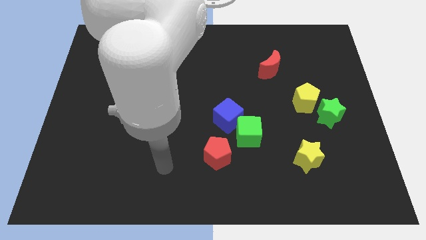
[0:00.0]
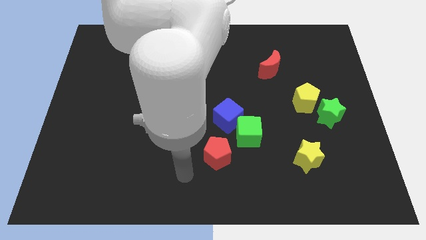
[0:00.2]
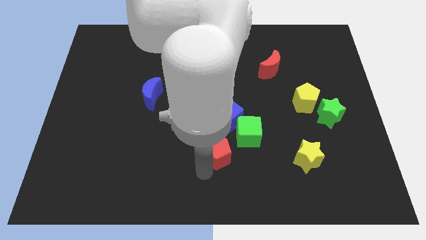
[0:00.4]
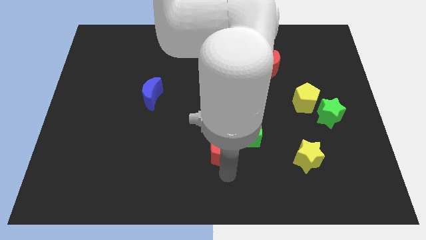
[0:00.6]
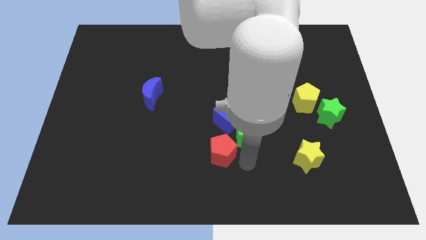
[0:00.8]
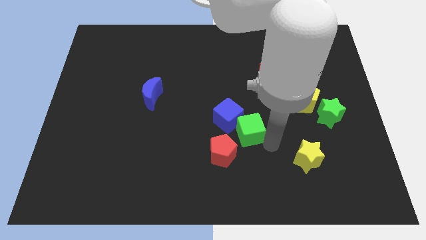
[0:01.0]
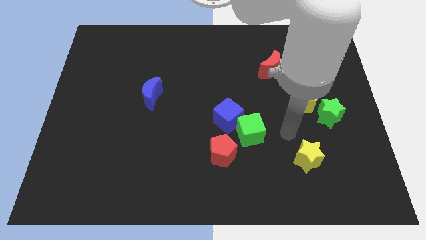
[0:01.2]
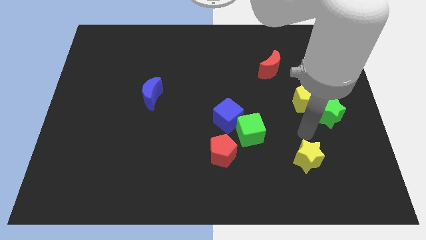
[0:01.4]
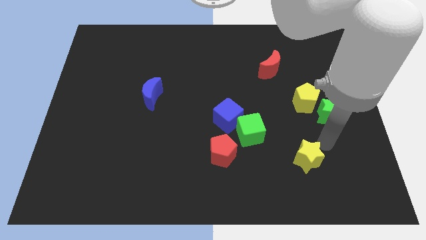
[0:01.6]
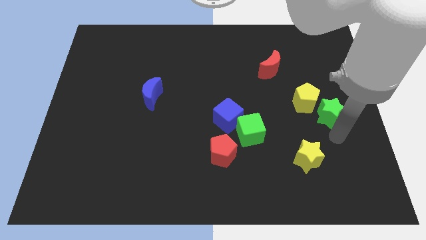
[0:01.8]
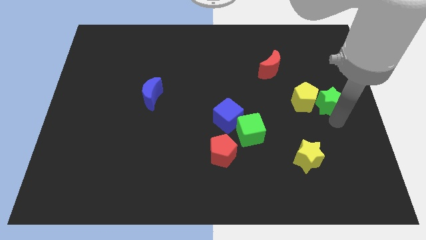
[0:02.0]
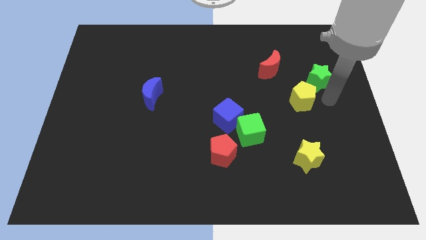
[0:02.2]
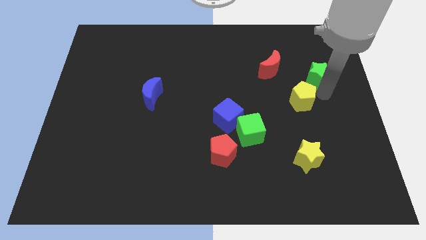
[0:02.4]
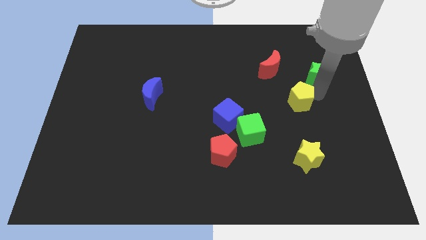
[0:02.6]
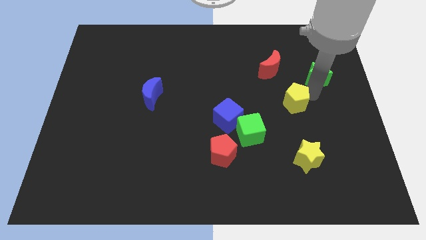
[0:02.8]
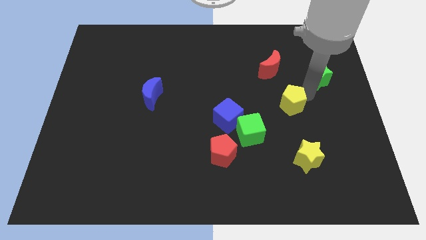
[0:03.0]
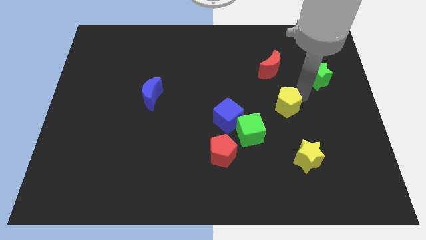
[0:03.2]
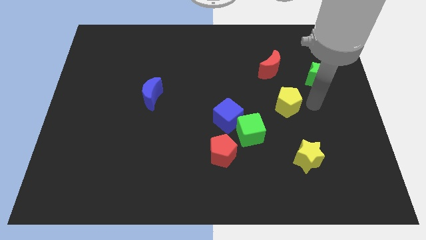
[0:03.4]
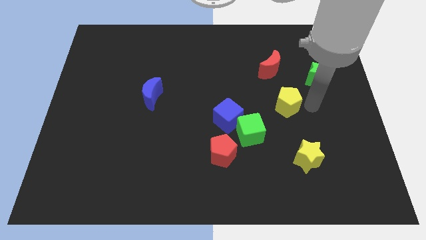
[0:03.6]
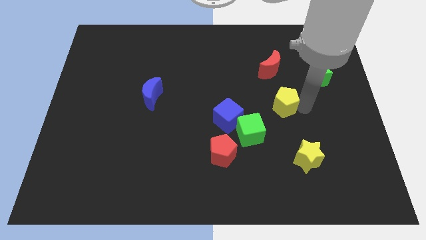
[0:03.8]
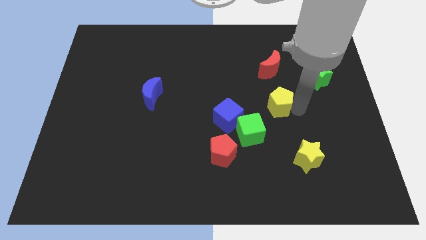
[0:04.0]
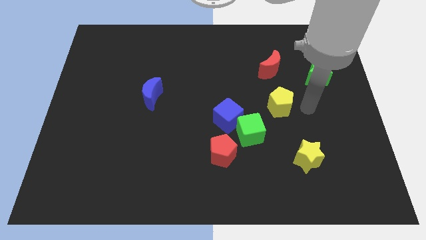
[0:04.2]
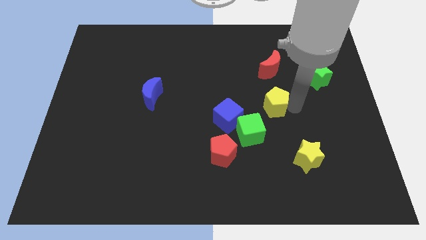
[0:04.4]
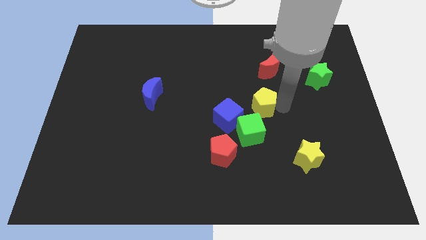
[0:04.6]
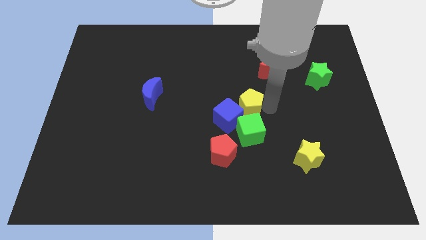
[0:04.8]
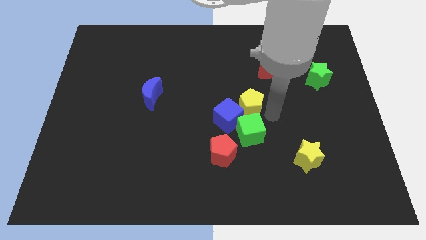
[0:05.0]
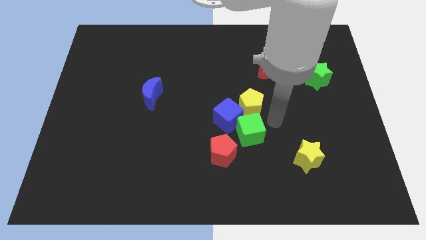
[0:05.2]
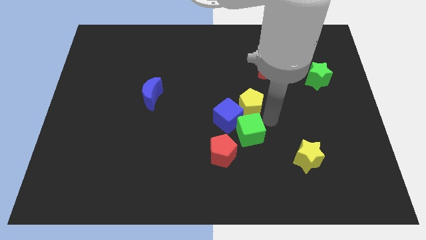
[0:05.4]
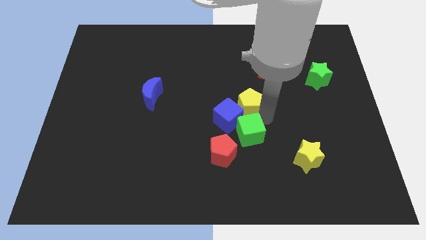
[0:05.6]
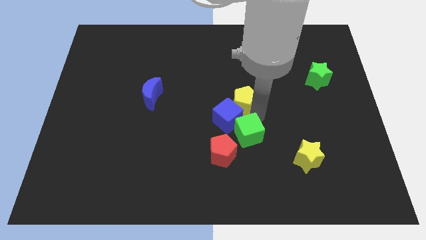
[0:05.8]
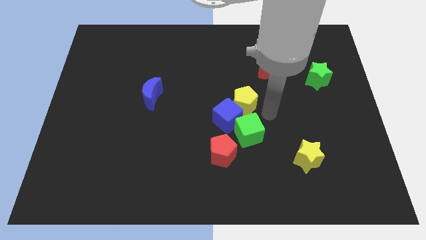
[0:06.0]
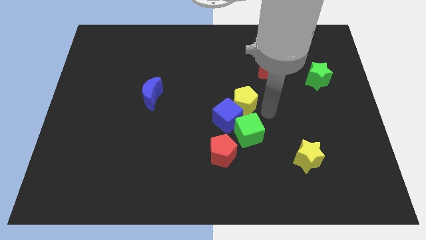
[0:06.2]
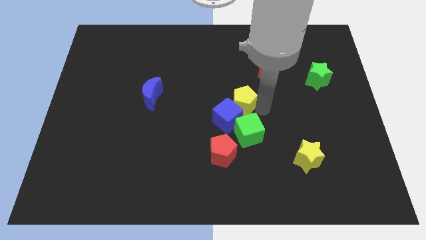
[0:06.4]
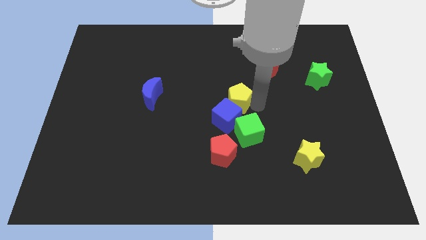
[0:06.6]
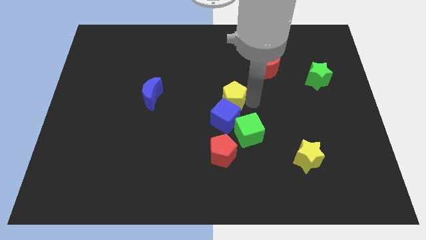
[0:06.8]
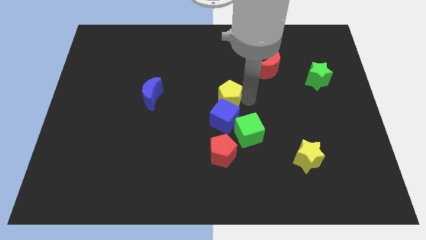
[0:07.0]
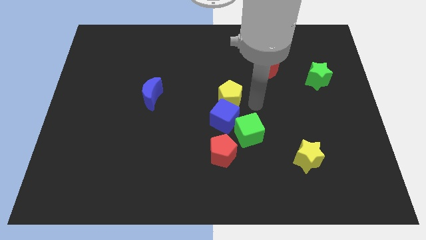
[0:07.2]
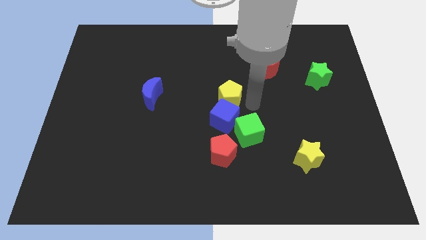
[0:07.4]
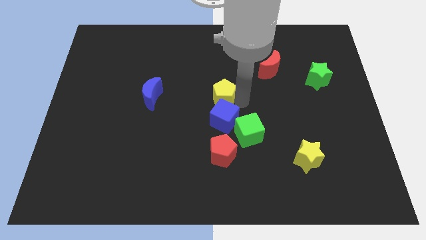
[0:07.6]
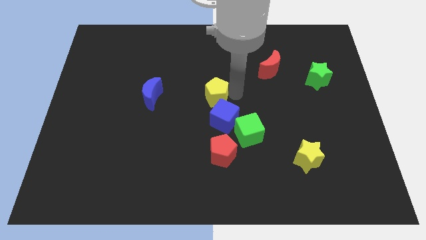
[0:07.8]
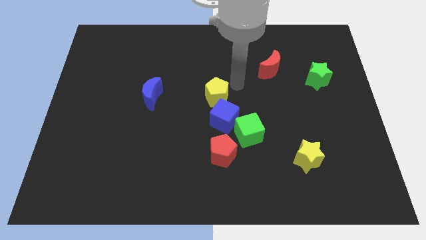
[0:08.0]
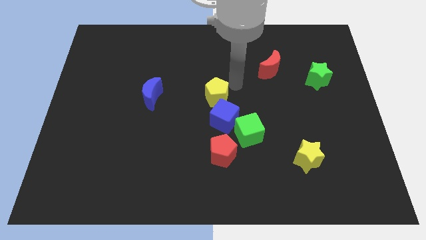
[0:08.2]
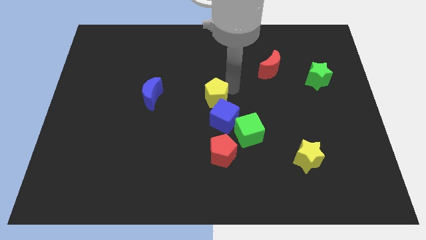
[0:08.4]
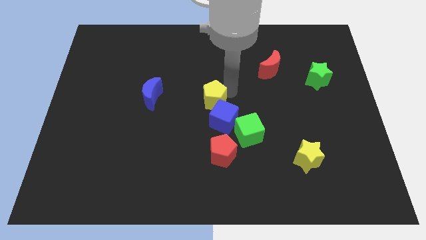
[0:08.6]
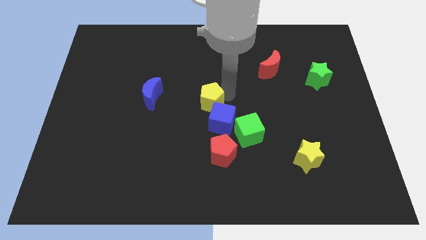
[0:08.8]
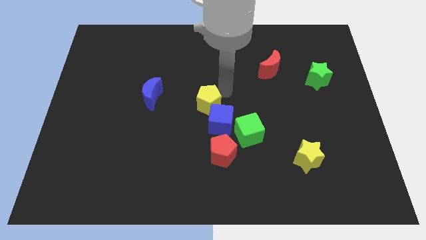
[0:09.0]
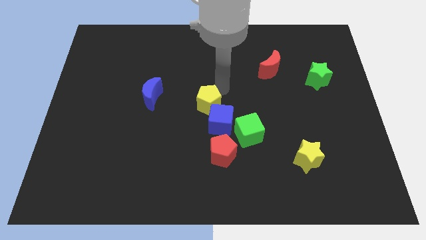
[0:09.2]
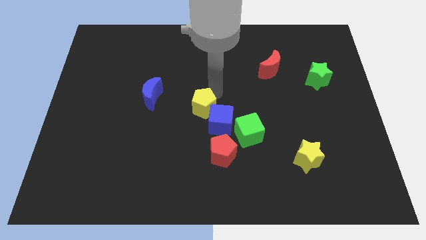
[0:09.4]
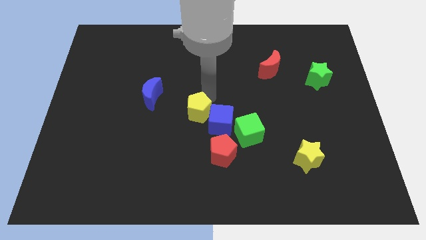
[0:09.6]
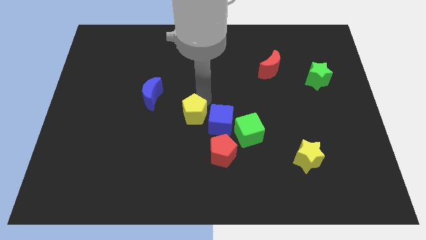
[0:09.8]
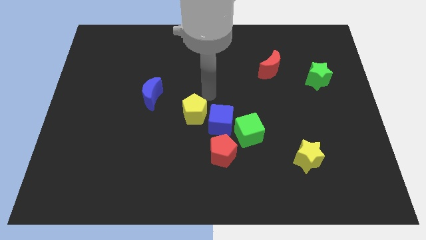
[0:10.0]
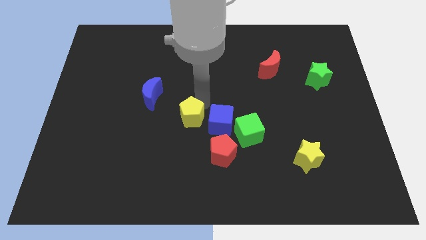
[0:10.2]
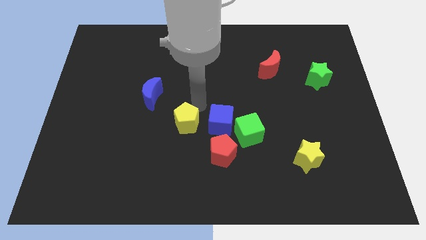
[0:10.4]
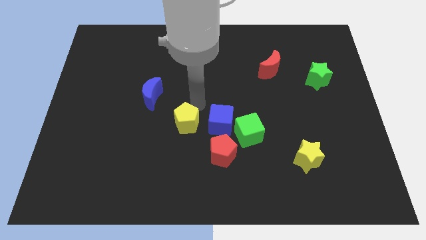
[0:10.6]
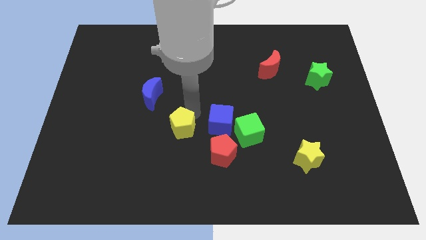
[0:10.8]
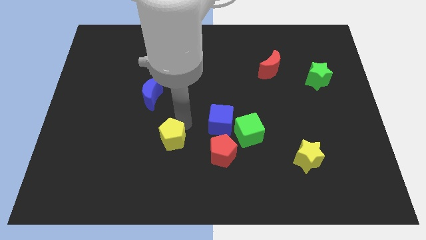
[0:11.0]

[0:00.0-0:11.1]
push the yellow pentagon to the left side of the red pentagon

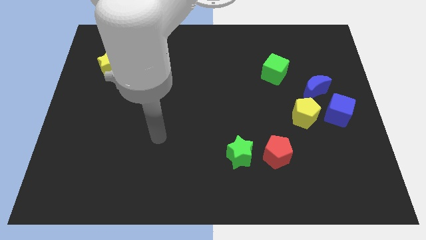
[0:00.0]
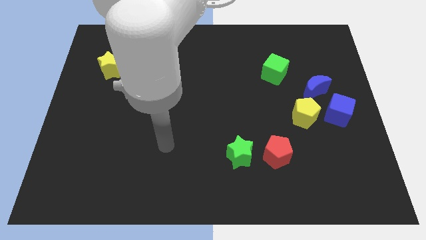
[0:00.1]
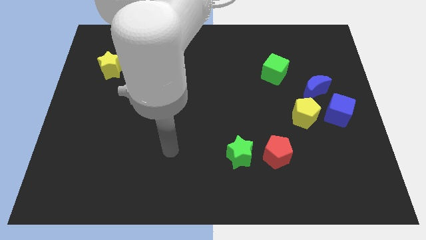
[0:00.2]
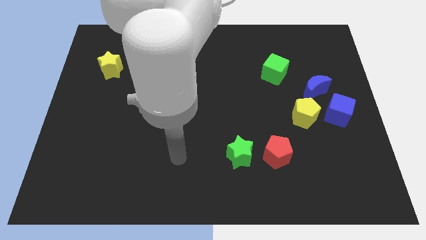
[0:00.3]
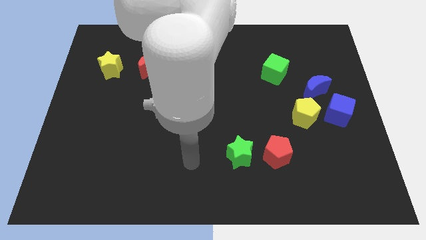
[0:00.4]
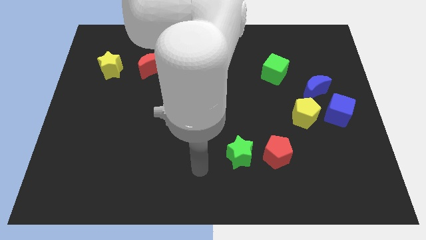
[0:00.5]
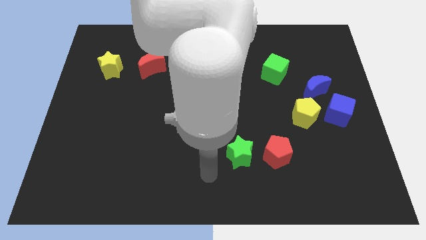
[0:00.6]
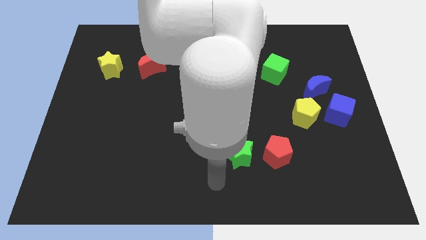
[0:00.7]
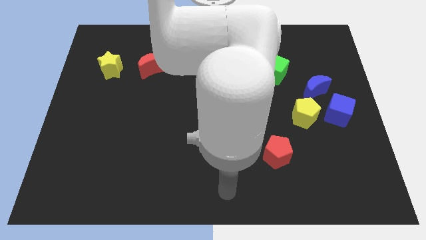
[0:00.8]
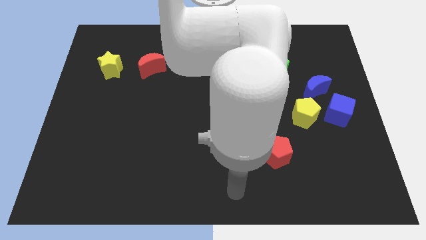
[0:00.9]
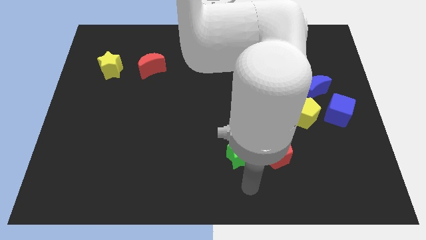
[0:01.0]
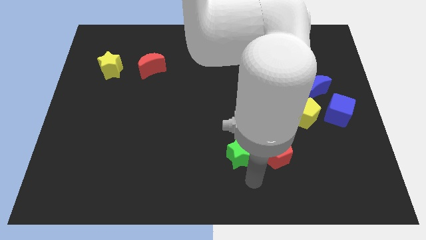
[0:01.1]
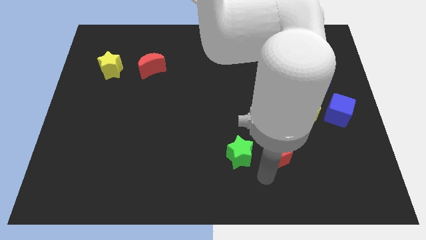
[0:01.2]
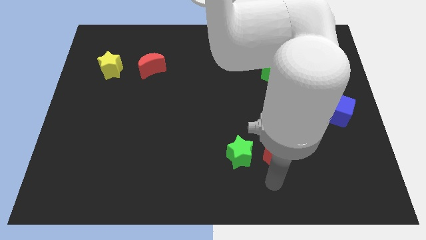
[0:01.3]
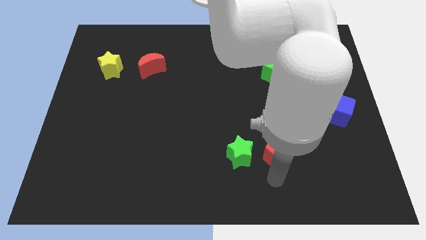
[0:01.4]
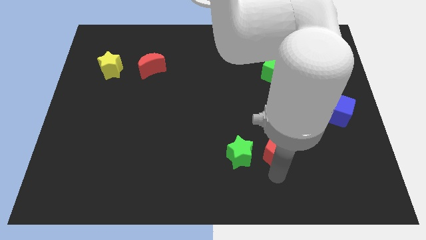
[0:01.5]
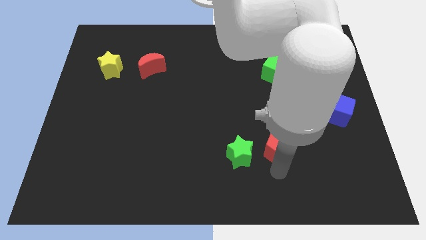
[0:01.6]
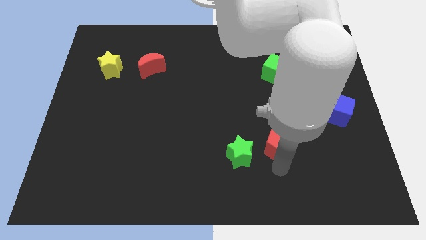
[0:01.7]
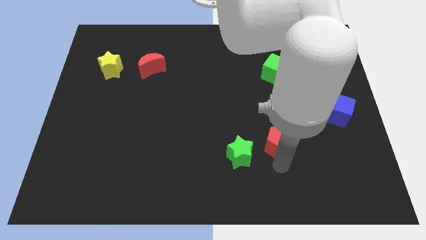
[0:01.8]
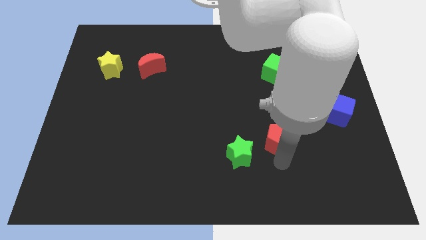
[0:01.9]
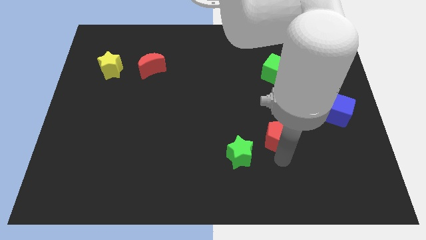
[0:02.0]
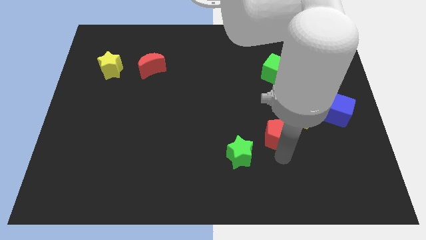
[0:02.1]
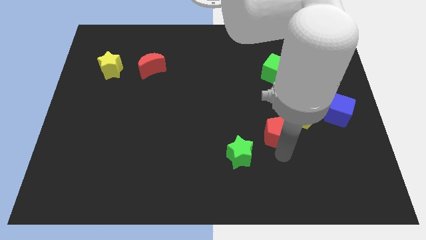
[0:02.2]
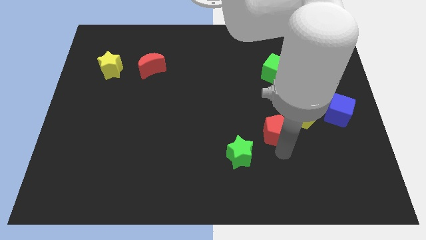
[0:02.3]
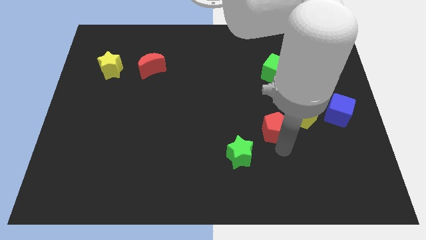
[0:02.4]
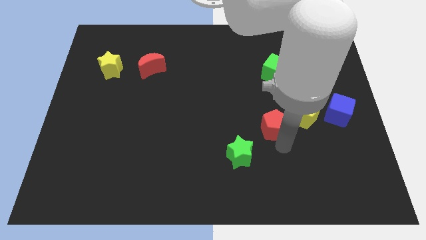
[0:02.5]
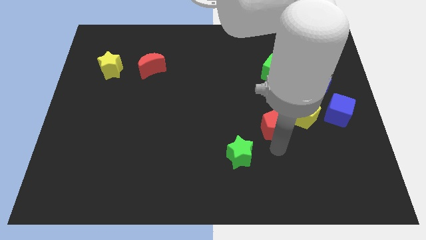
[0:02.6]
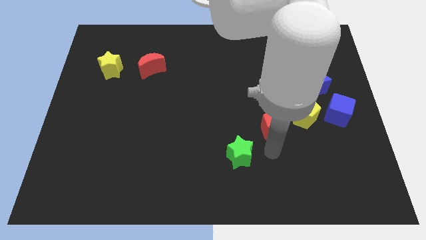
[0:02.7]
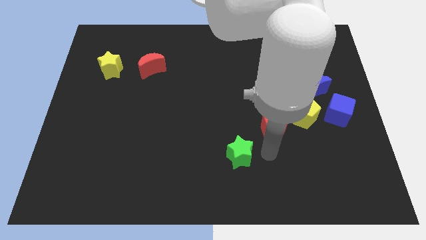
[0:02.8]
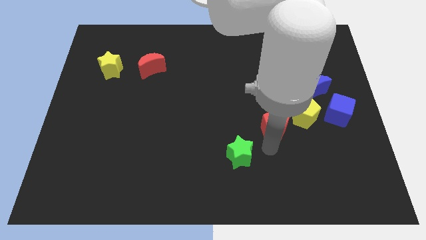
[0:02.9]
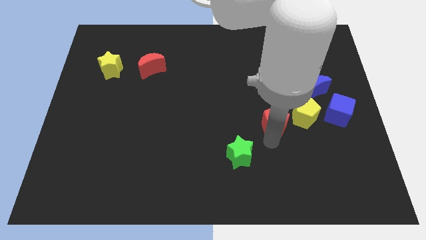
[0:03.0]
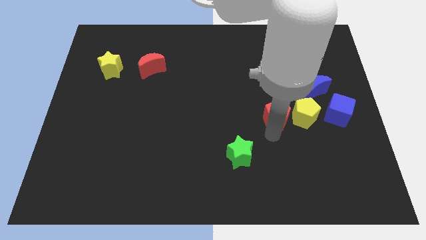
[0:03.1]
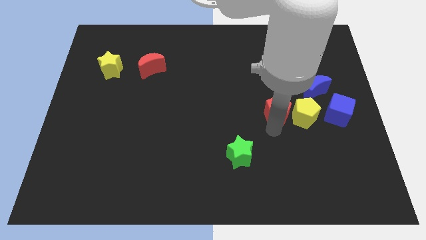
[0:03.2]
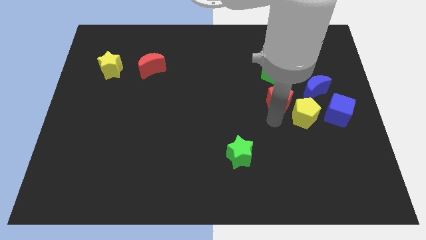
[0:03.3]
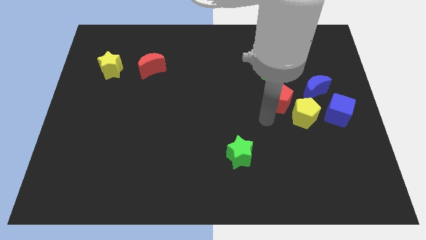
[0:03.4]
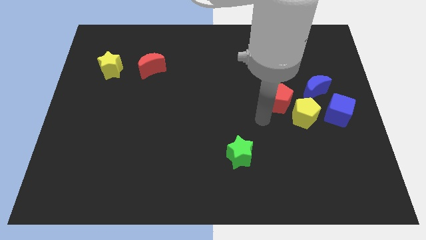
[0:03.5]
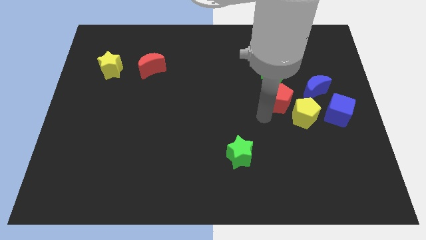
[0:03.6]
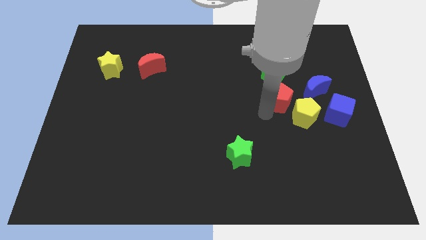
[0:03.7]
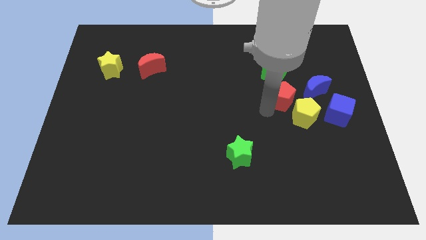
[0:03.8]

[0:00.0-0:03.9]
move the red pentagon above the yellow pentagon
